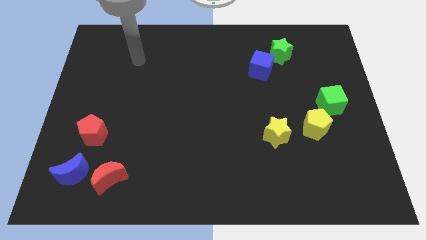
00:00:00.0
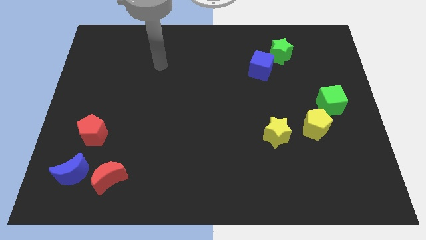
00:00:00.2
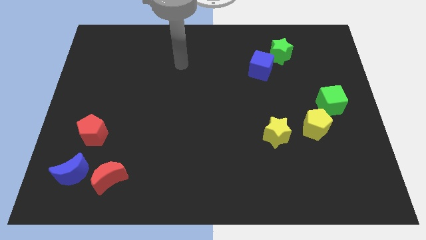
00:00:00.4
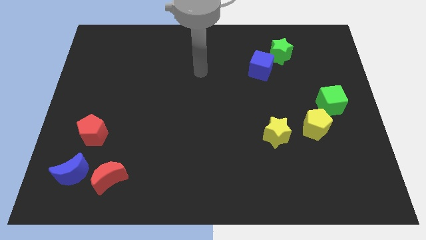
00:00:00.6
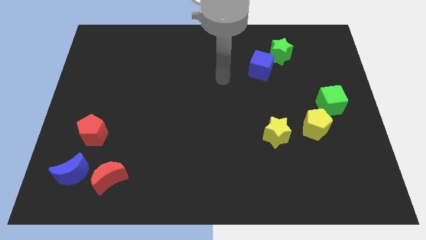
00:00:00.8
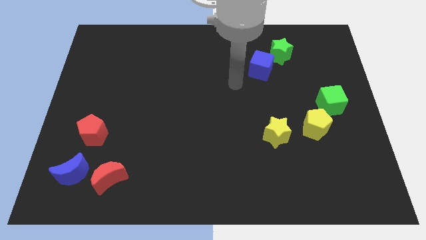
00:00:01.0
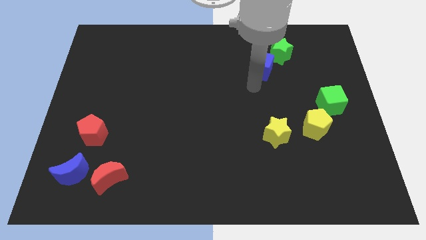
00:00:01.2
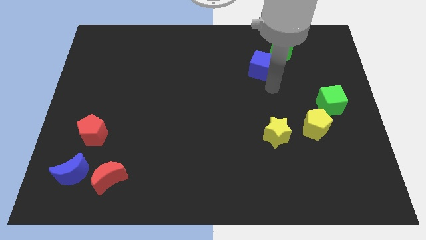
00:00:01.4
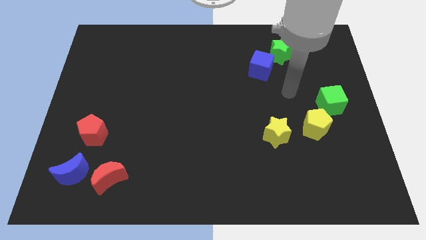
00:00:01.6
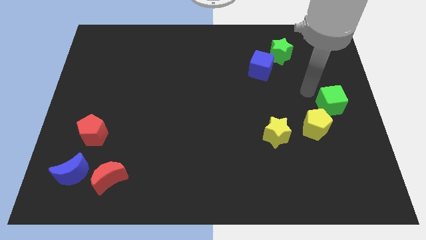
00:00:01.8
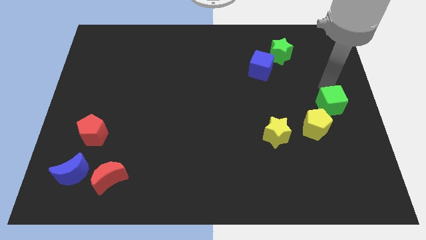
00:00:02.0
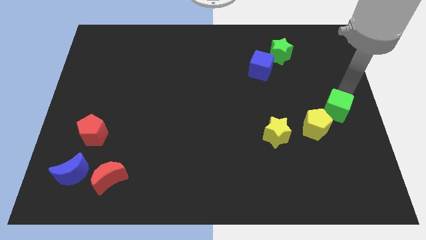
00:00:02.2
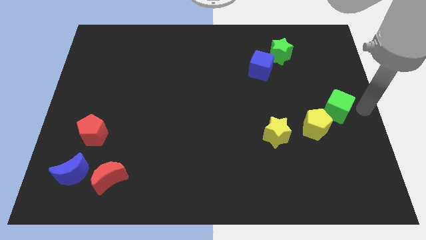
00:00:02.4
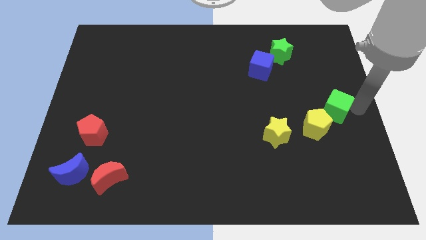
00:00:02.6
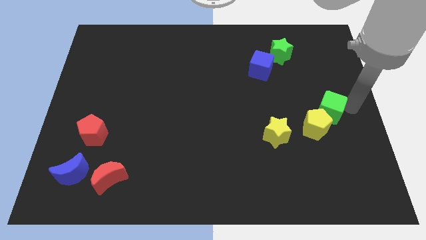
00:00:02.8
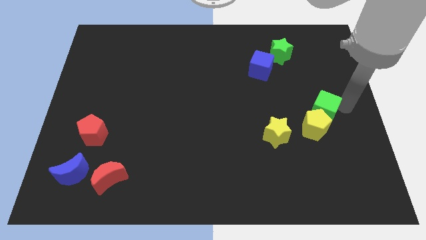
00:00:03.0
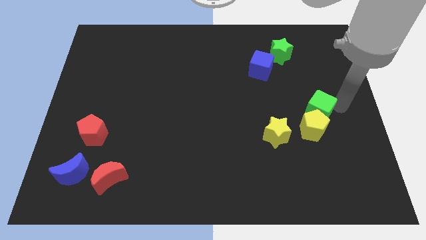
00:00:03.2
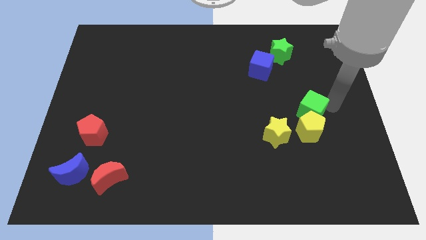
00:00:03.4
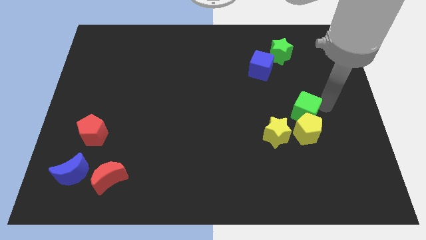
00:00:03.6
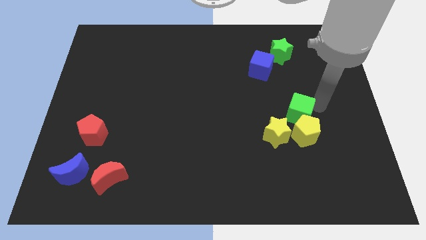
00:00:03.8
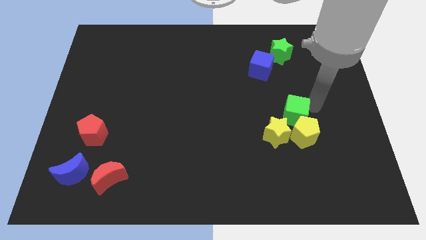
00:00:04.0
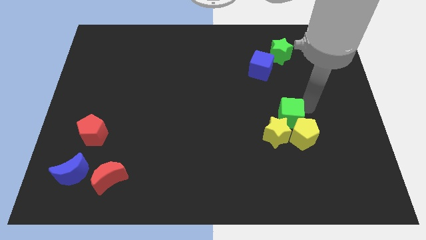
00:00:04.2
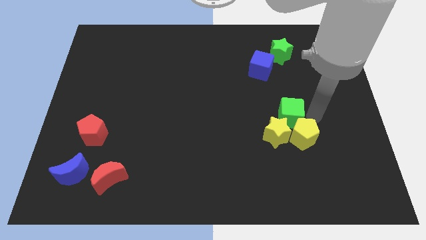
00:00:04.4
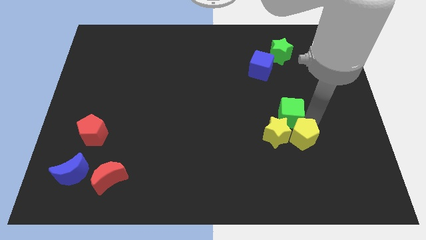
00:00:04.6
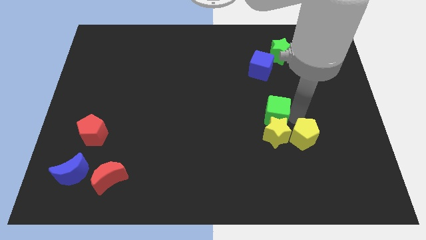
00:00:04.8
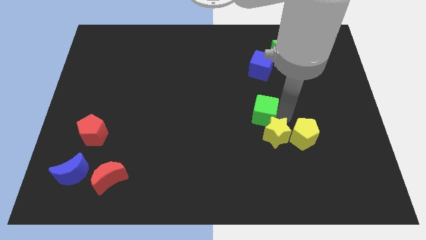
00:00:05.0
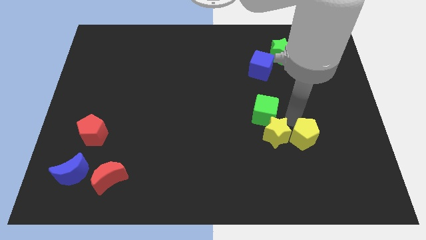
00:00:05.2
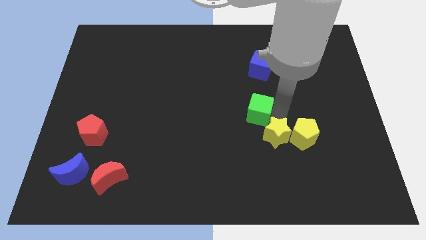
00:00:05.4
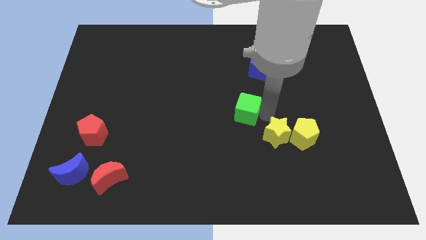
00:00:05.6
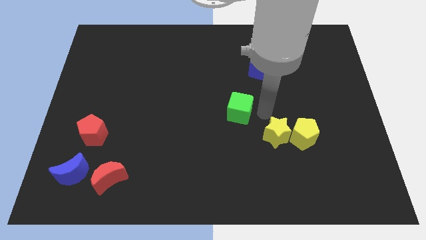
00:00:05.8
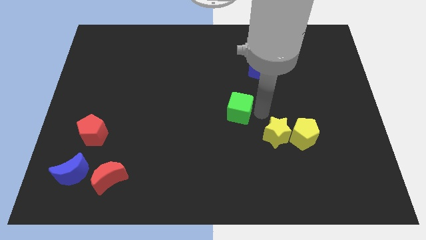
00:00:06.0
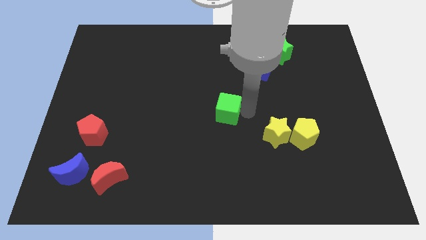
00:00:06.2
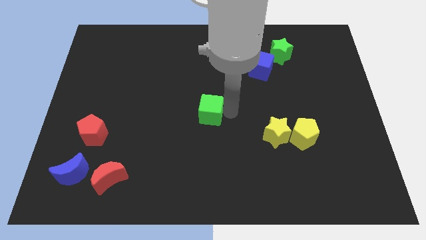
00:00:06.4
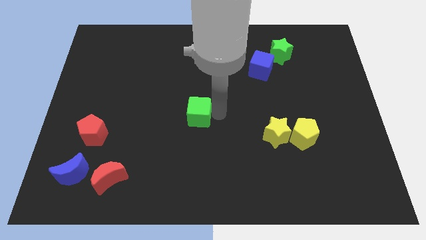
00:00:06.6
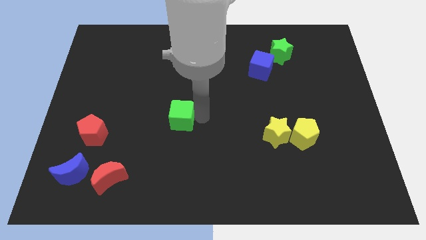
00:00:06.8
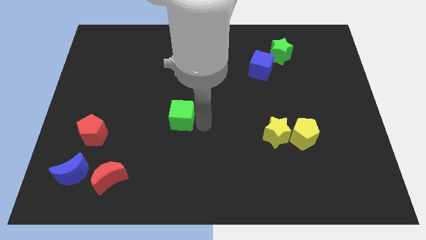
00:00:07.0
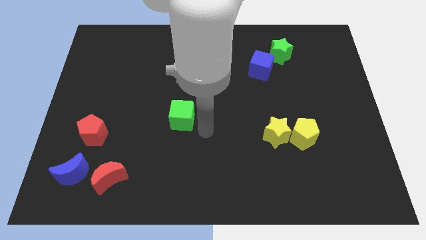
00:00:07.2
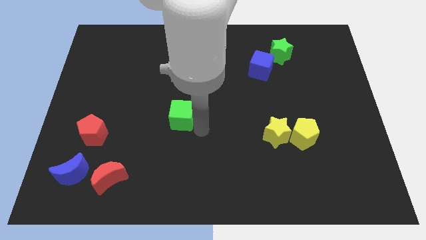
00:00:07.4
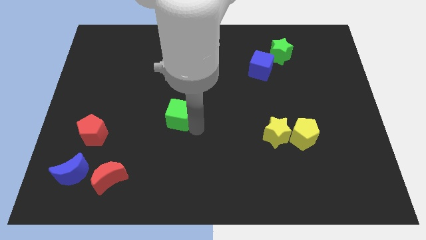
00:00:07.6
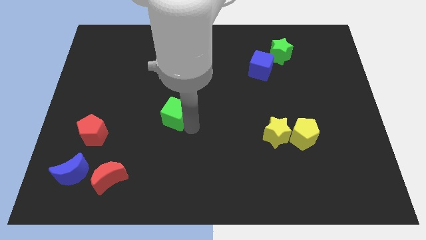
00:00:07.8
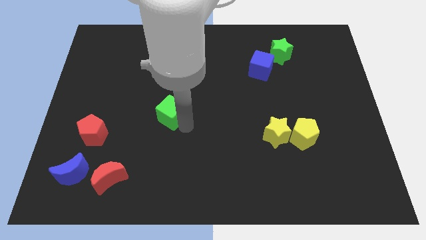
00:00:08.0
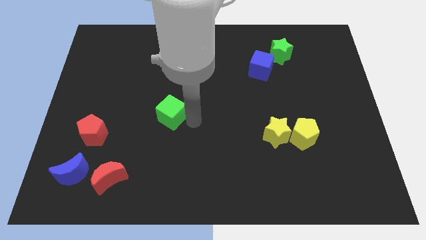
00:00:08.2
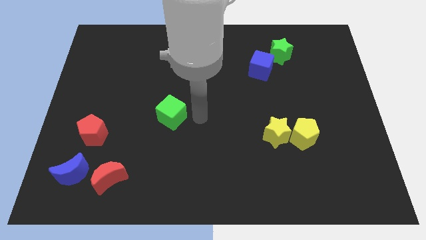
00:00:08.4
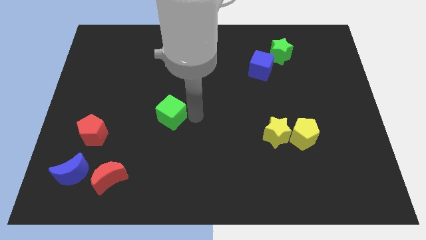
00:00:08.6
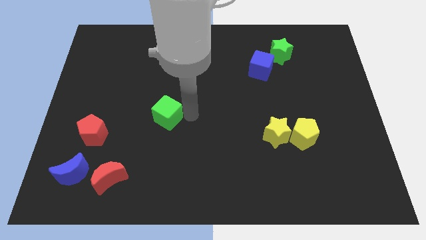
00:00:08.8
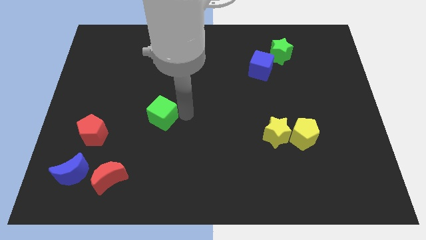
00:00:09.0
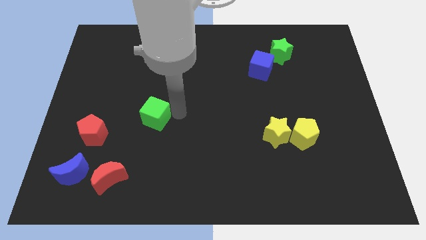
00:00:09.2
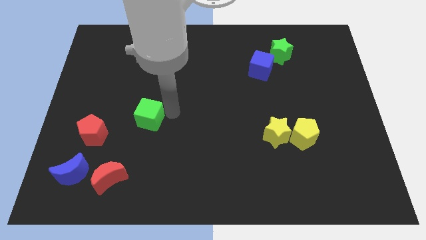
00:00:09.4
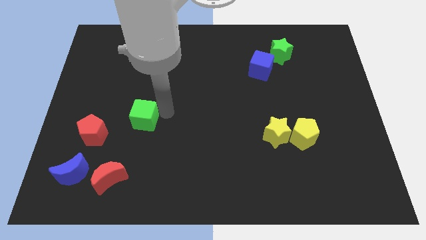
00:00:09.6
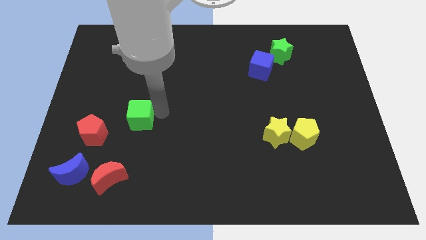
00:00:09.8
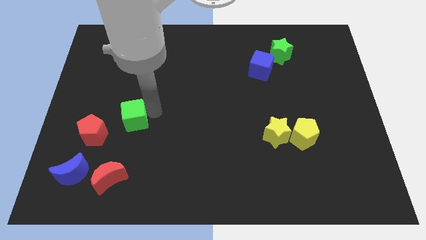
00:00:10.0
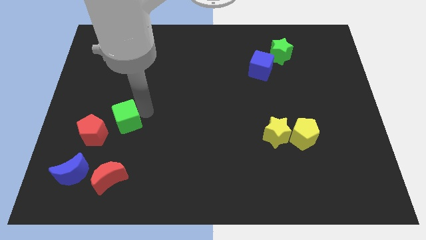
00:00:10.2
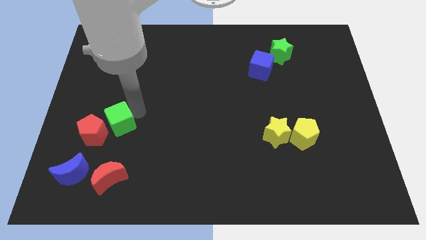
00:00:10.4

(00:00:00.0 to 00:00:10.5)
push the green cube close to the red pentagon

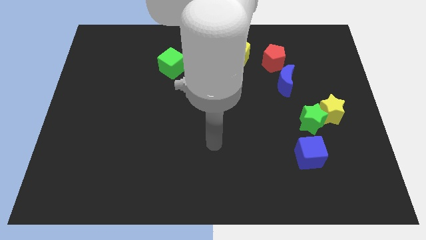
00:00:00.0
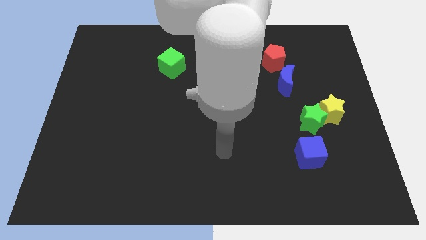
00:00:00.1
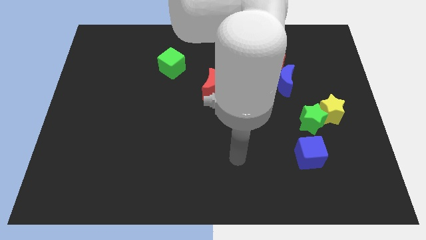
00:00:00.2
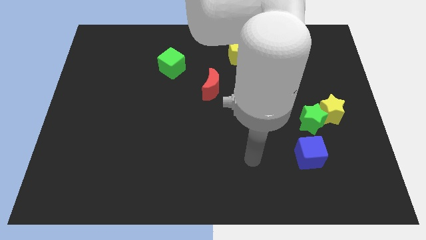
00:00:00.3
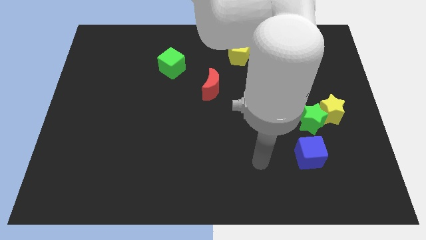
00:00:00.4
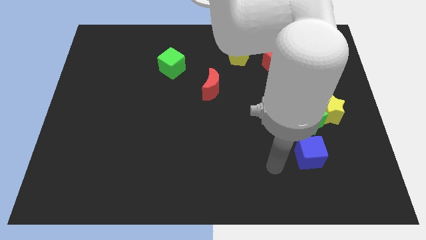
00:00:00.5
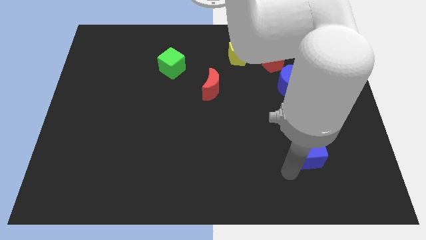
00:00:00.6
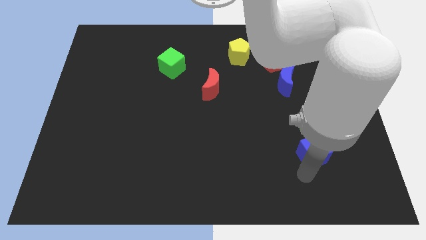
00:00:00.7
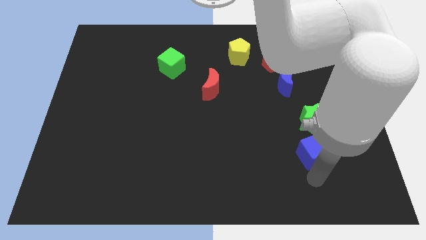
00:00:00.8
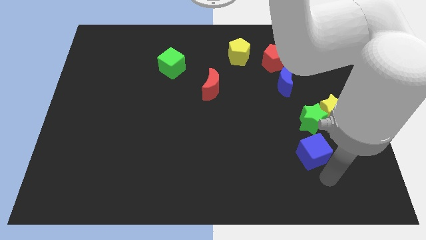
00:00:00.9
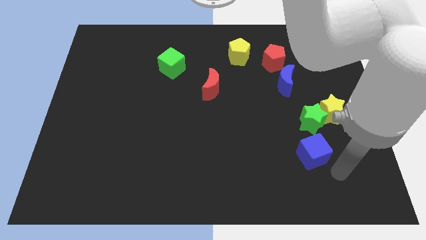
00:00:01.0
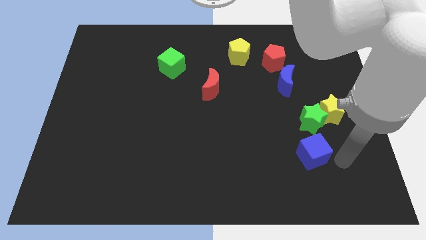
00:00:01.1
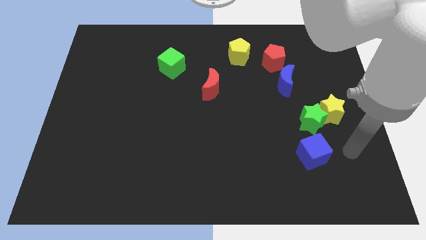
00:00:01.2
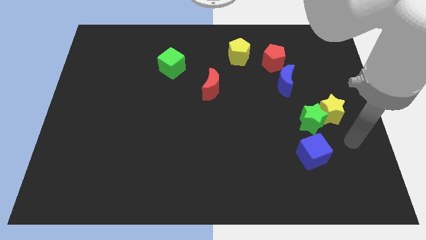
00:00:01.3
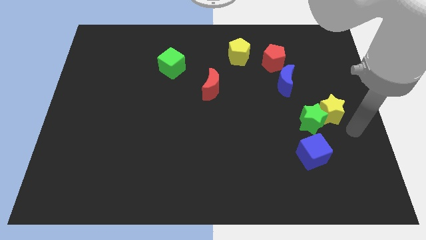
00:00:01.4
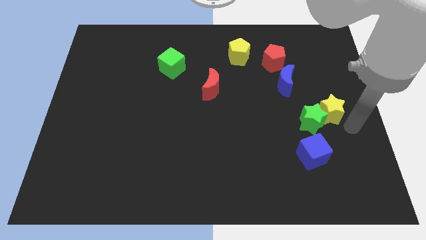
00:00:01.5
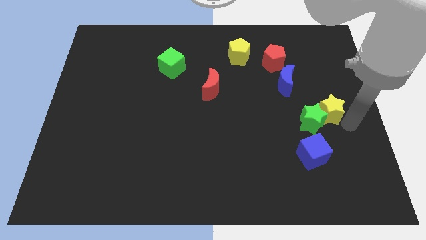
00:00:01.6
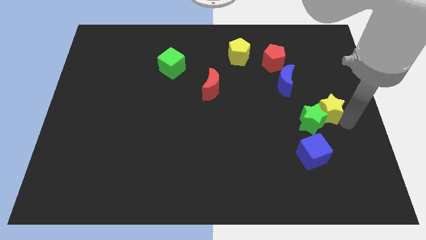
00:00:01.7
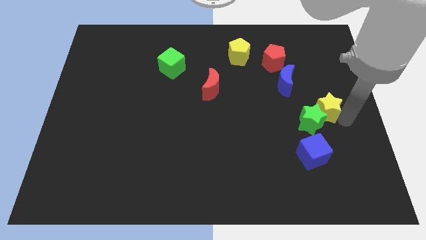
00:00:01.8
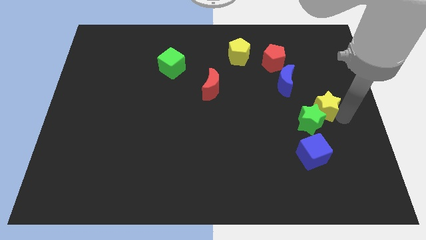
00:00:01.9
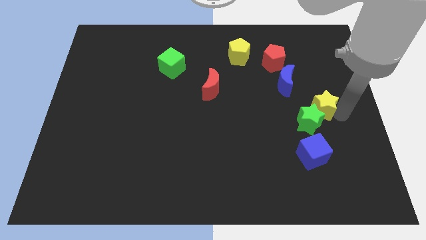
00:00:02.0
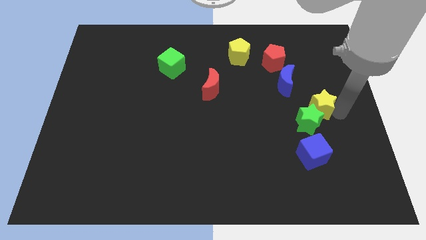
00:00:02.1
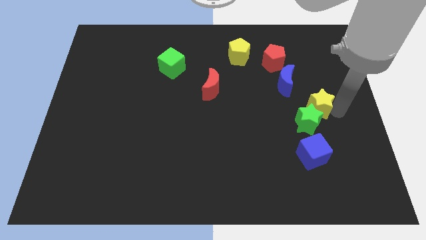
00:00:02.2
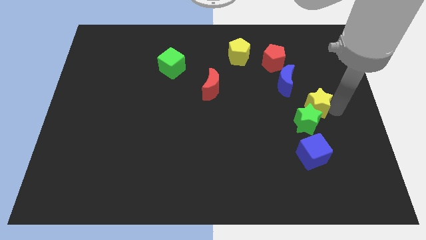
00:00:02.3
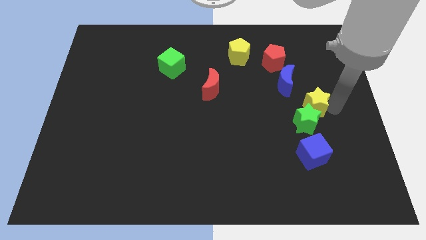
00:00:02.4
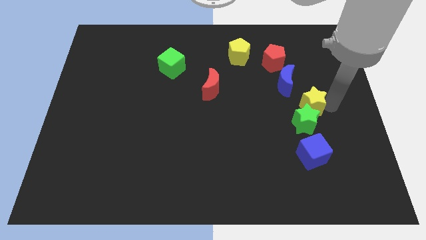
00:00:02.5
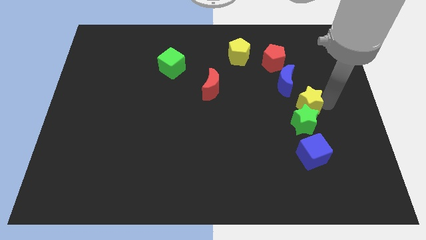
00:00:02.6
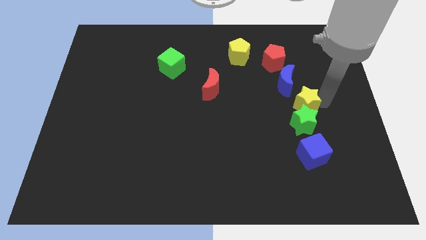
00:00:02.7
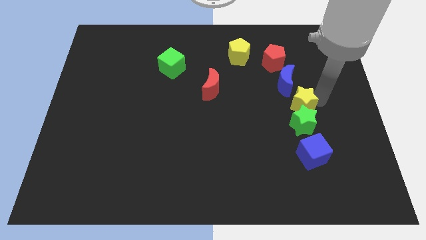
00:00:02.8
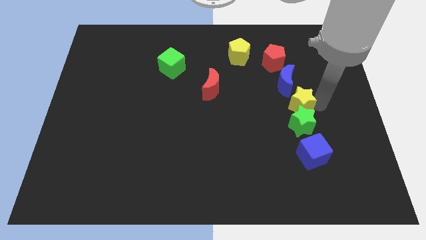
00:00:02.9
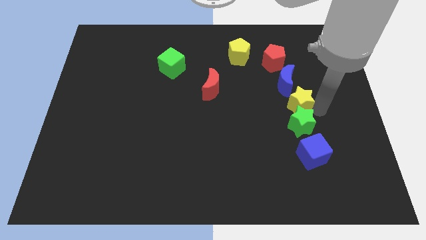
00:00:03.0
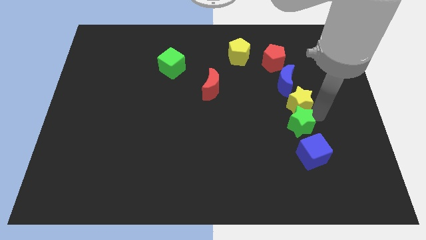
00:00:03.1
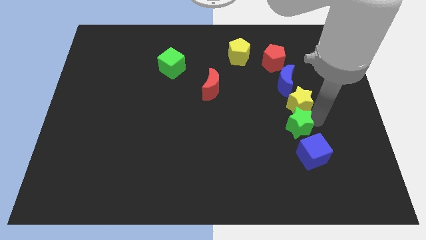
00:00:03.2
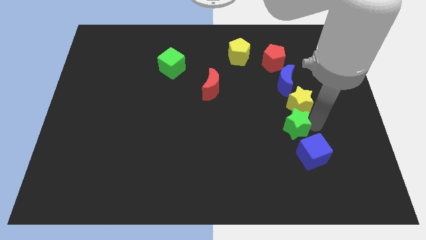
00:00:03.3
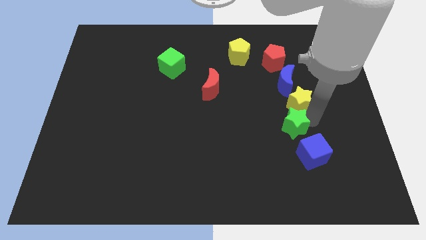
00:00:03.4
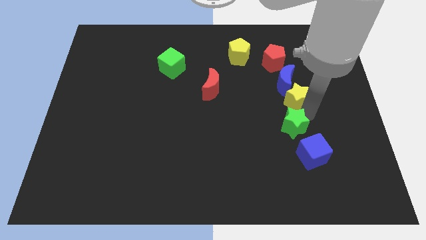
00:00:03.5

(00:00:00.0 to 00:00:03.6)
move the yellow star close to the blue moon
